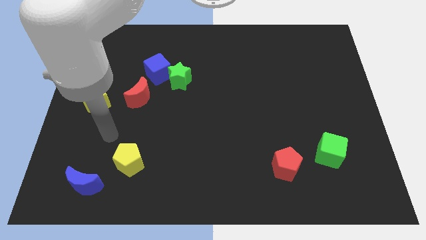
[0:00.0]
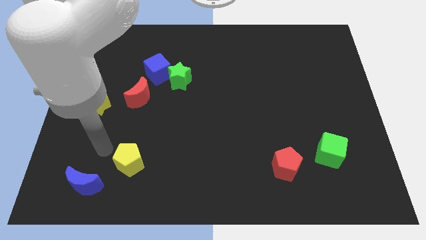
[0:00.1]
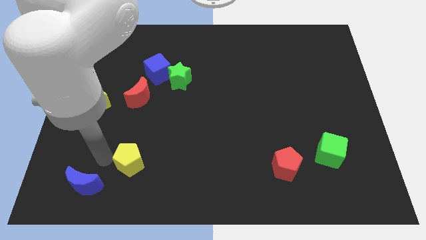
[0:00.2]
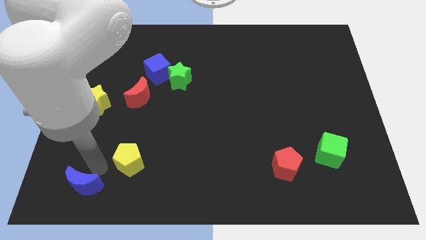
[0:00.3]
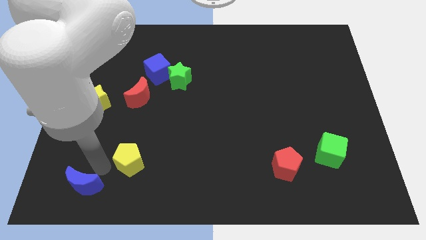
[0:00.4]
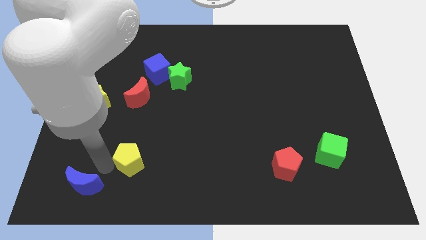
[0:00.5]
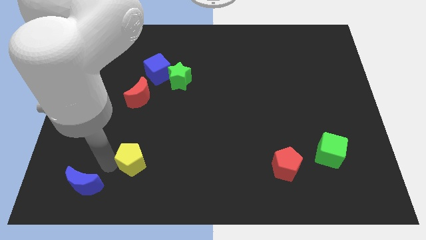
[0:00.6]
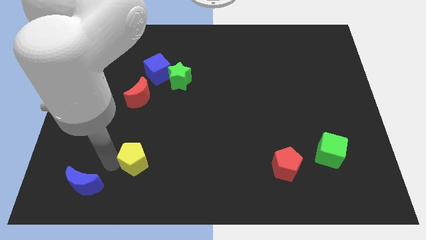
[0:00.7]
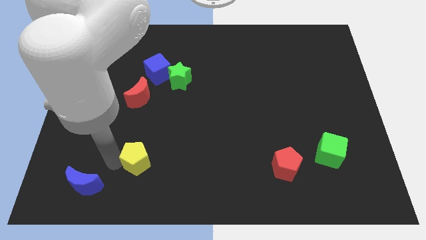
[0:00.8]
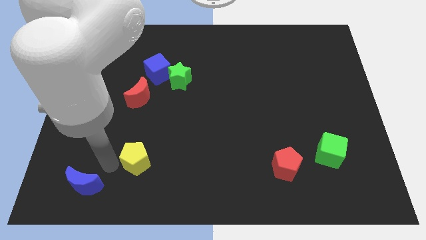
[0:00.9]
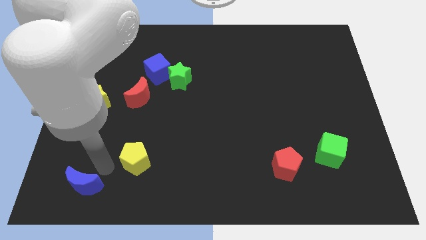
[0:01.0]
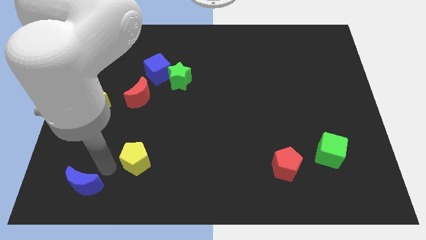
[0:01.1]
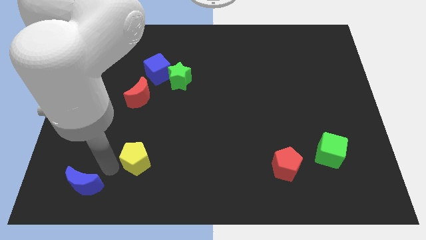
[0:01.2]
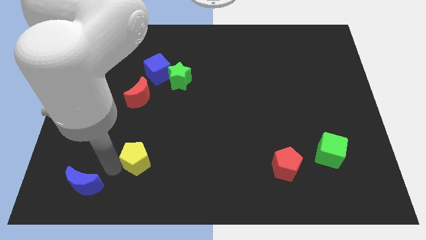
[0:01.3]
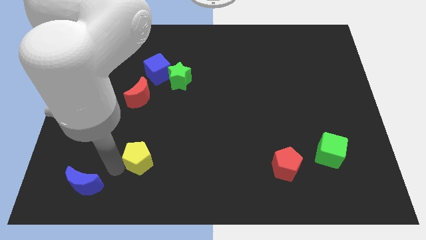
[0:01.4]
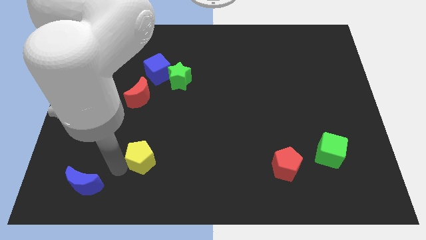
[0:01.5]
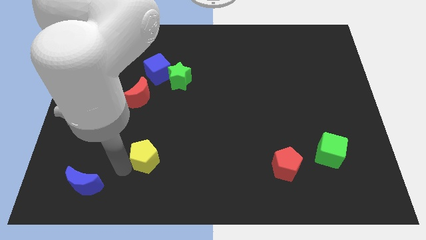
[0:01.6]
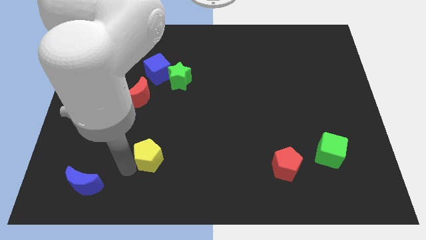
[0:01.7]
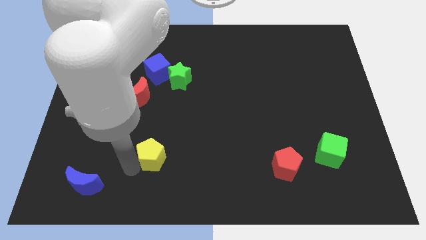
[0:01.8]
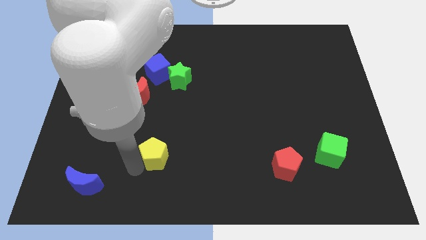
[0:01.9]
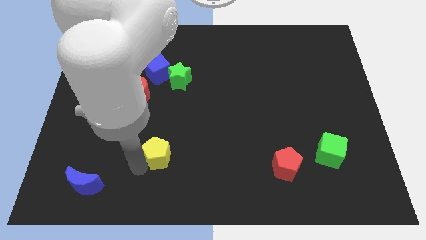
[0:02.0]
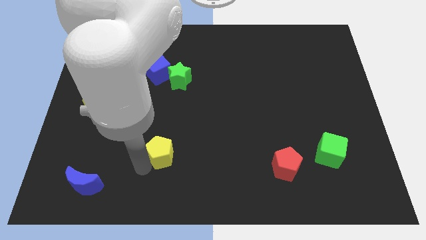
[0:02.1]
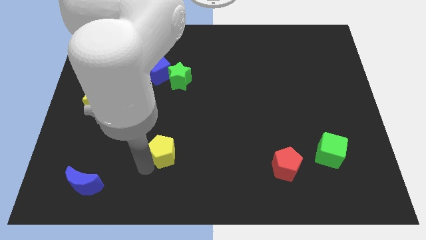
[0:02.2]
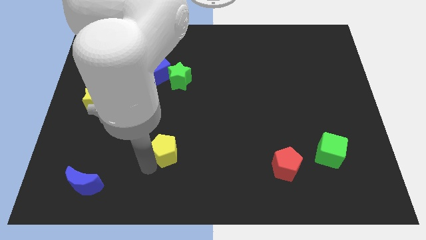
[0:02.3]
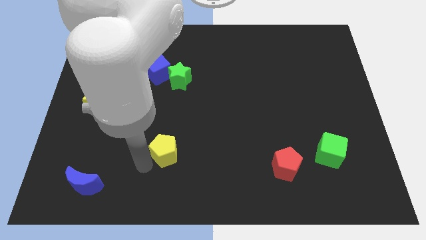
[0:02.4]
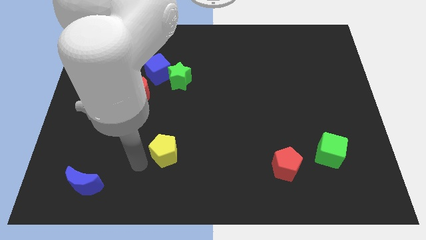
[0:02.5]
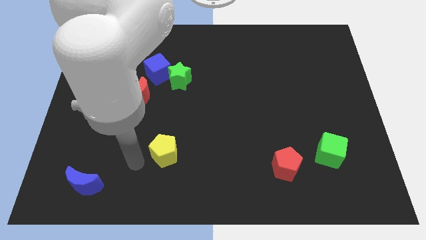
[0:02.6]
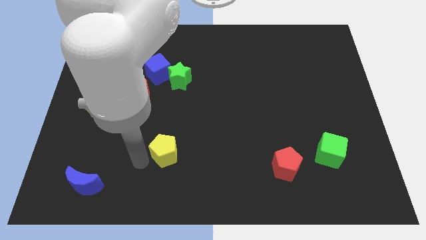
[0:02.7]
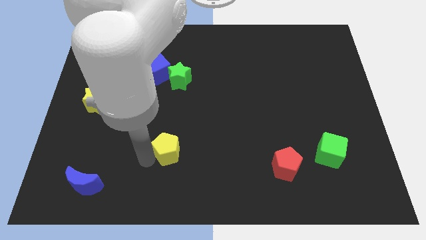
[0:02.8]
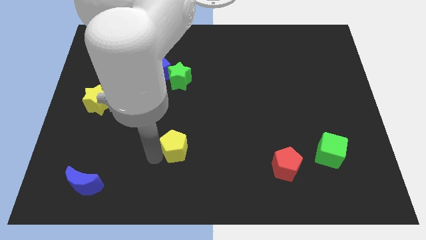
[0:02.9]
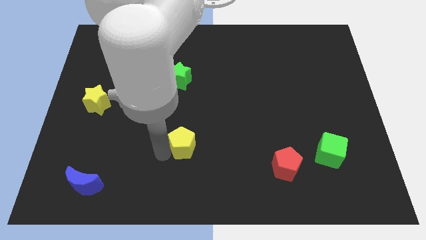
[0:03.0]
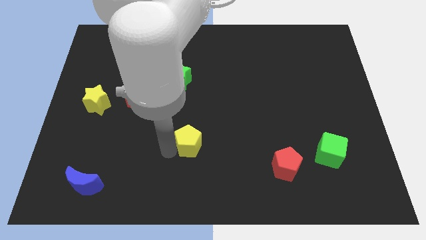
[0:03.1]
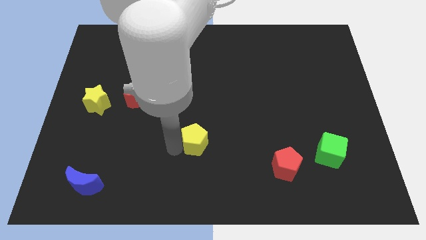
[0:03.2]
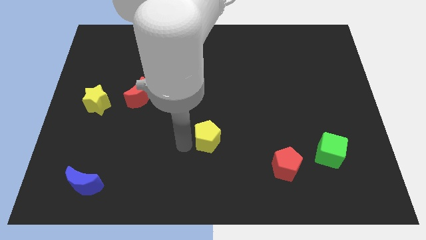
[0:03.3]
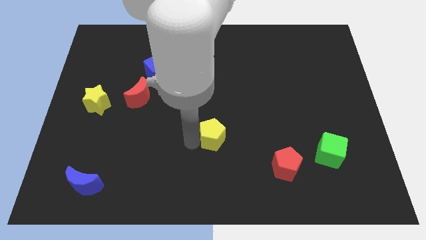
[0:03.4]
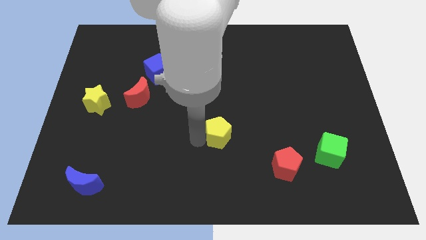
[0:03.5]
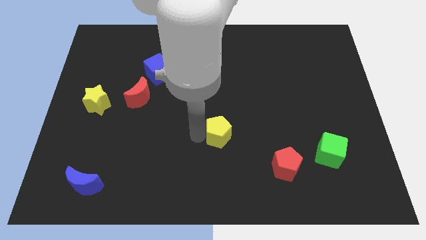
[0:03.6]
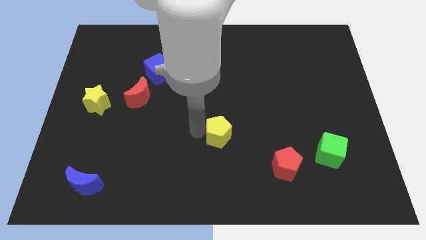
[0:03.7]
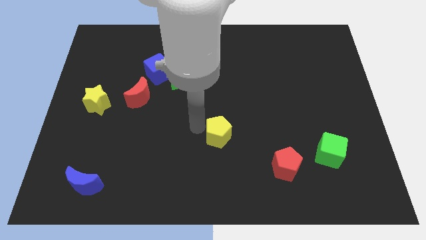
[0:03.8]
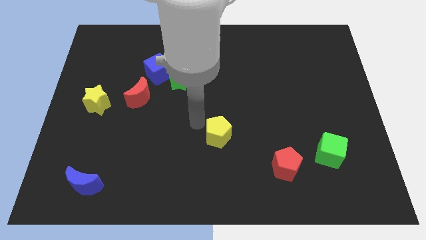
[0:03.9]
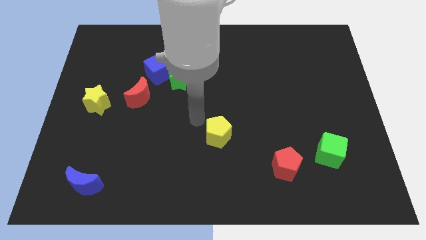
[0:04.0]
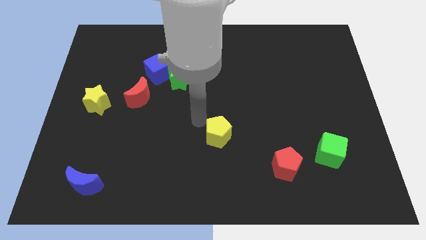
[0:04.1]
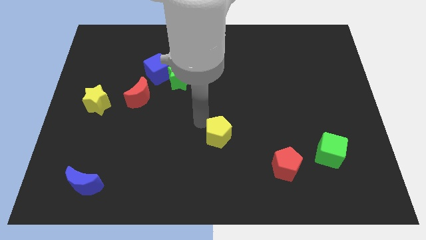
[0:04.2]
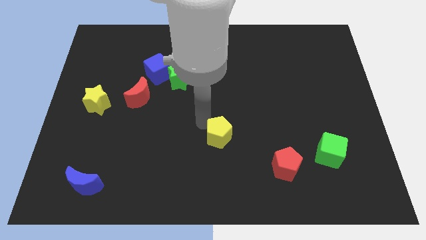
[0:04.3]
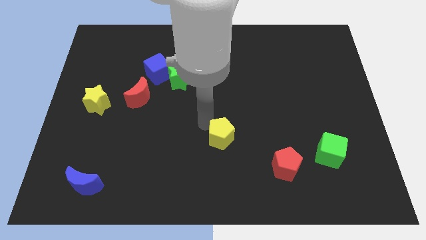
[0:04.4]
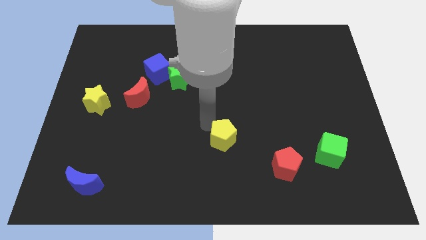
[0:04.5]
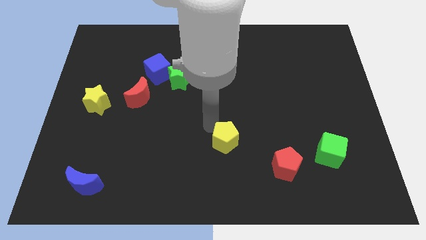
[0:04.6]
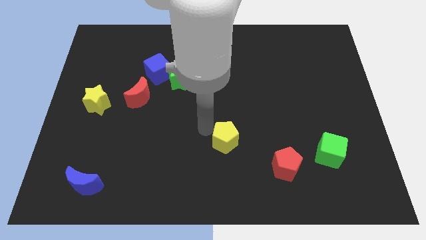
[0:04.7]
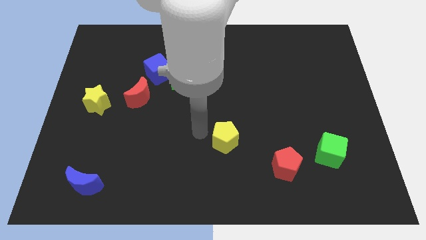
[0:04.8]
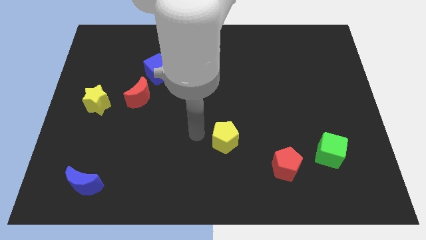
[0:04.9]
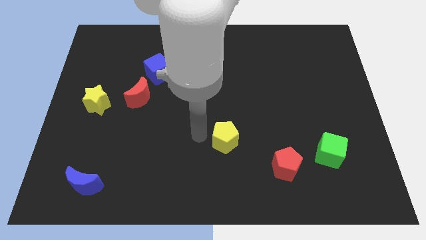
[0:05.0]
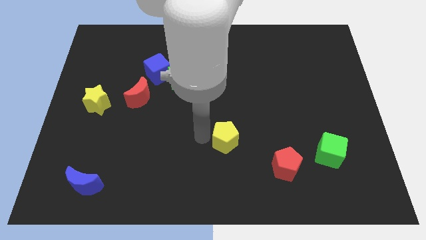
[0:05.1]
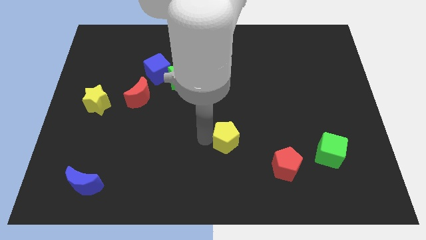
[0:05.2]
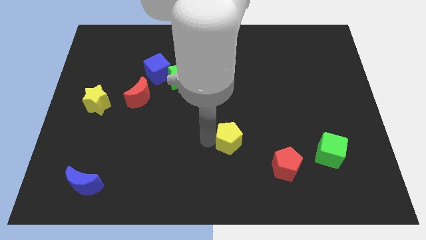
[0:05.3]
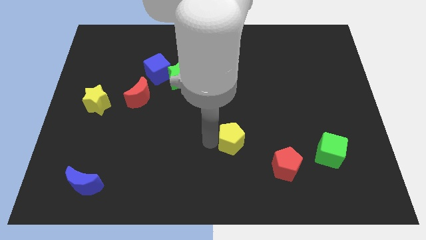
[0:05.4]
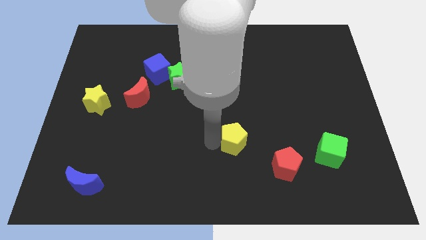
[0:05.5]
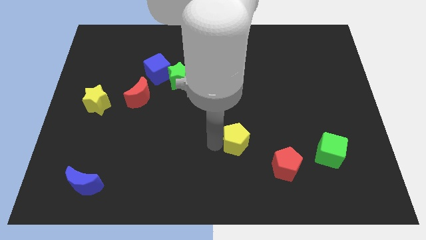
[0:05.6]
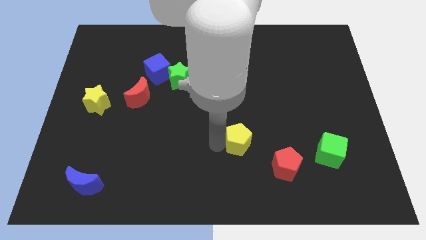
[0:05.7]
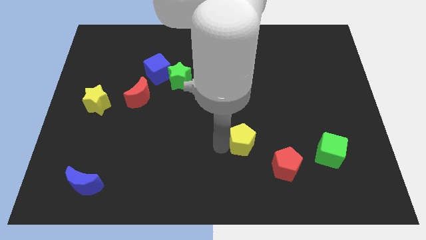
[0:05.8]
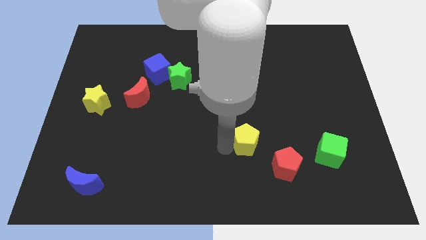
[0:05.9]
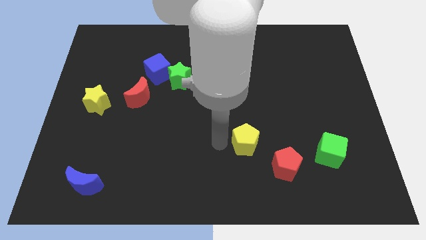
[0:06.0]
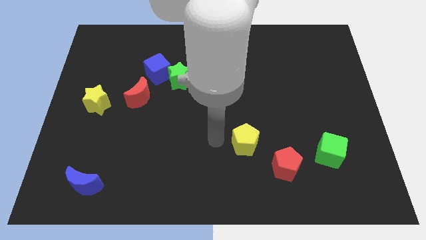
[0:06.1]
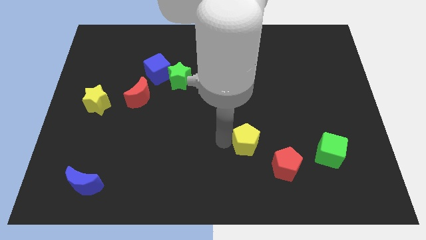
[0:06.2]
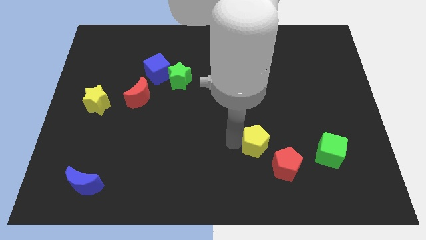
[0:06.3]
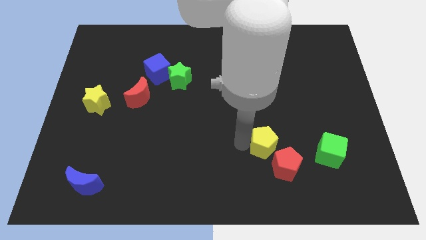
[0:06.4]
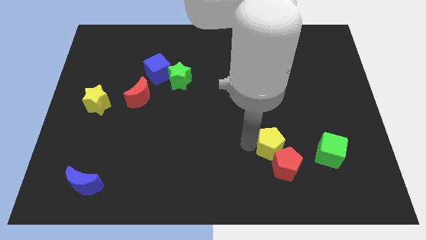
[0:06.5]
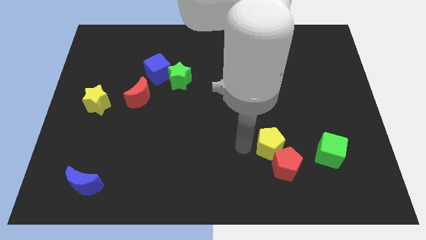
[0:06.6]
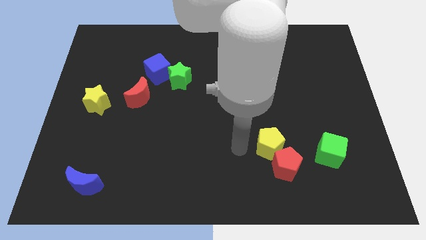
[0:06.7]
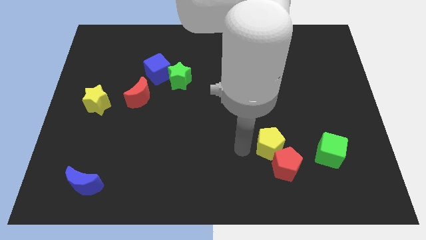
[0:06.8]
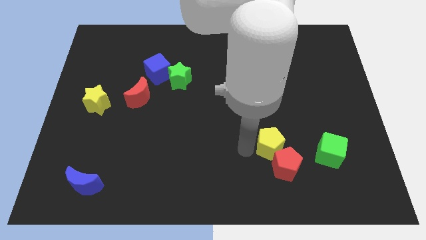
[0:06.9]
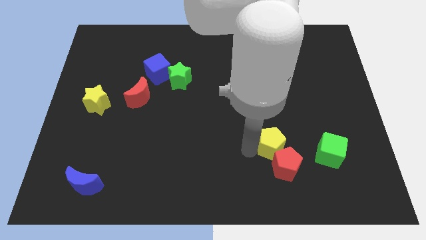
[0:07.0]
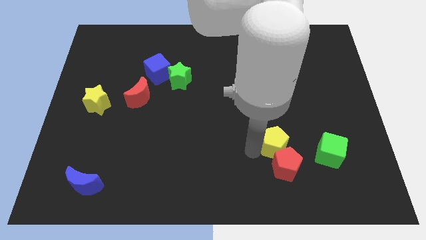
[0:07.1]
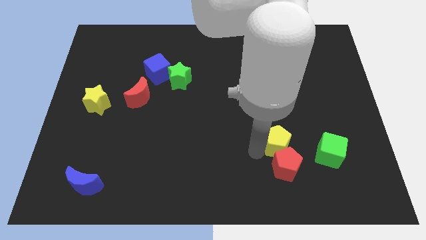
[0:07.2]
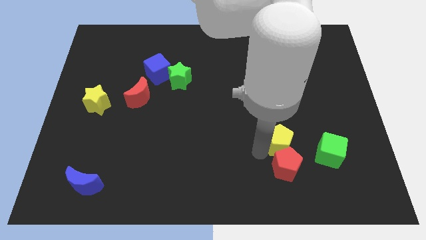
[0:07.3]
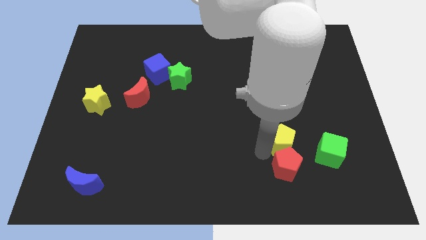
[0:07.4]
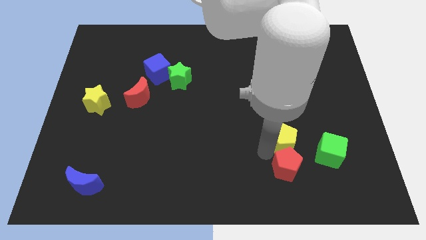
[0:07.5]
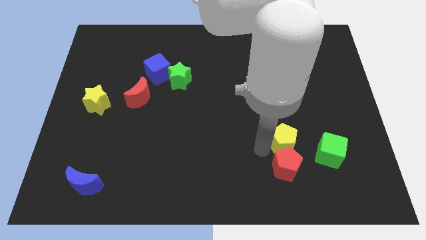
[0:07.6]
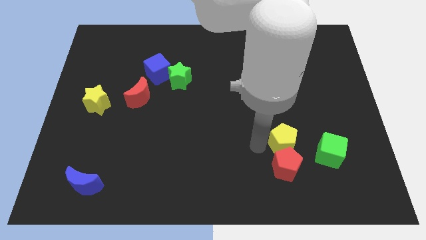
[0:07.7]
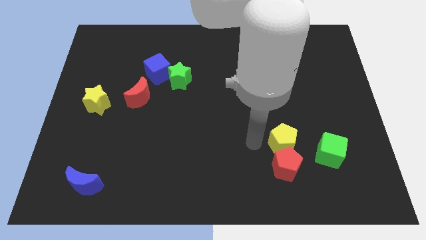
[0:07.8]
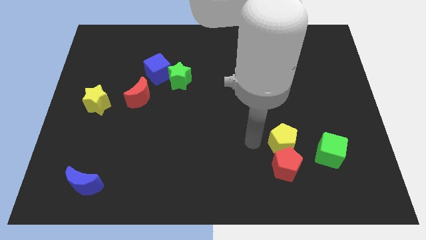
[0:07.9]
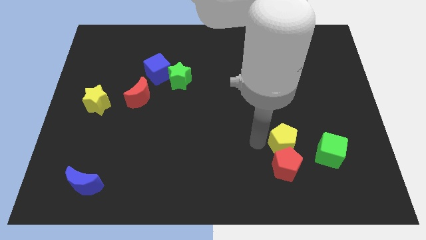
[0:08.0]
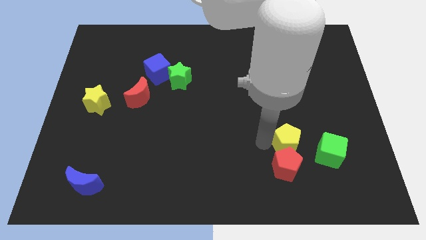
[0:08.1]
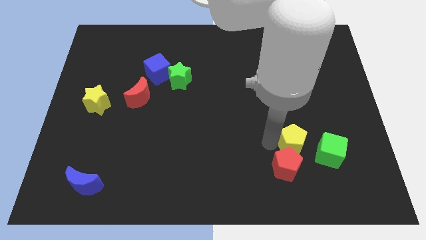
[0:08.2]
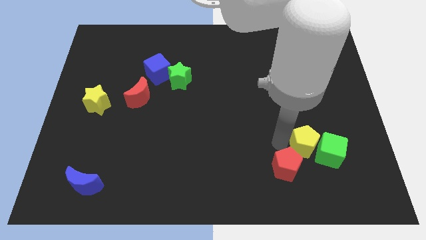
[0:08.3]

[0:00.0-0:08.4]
move the yellow pentagon close to the green cube
